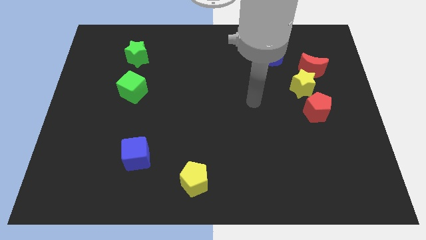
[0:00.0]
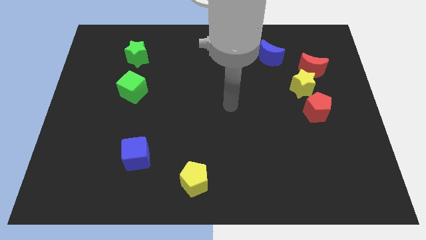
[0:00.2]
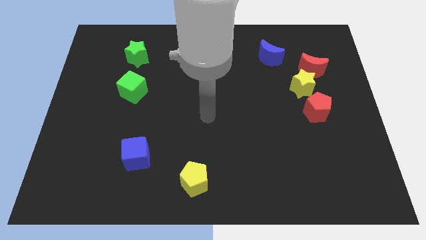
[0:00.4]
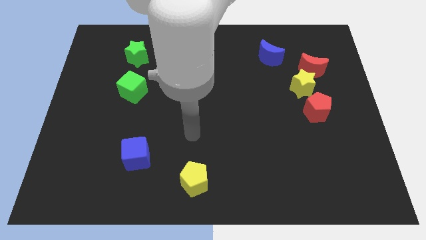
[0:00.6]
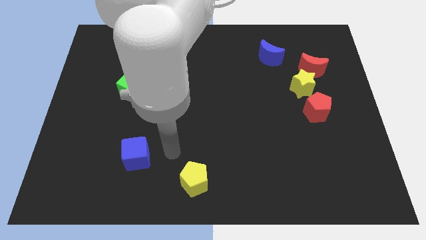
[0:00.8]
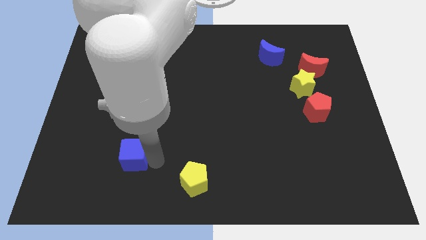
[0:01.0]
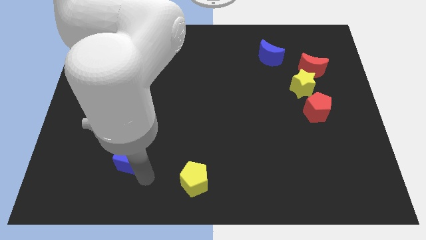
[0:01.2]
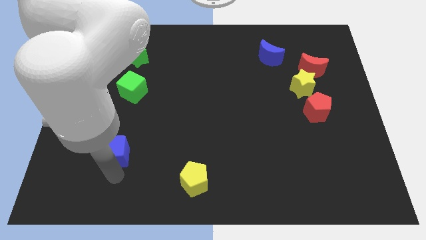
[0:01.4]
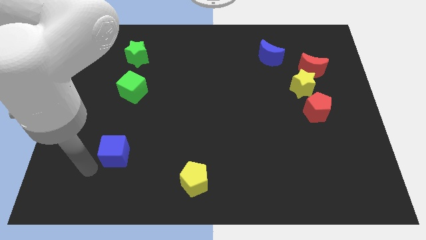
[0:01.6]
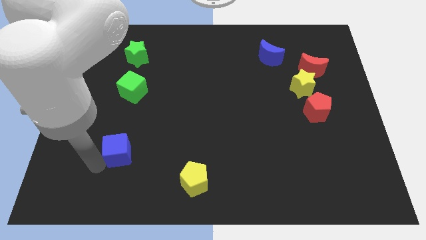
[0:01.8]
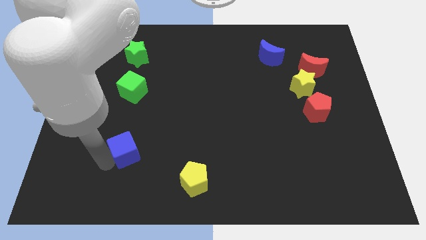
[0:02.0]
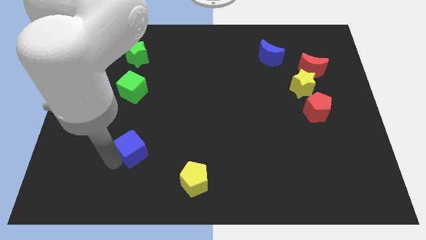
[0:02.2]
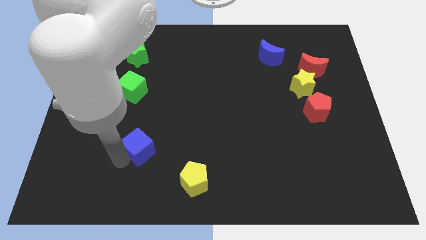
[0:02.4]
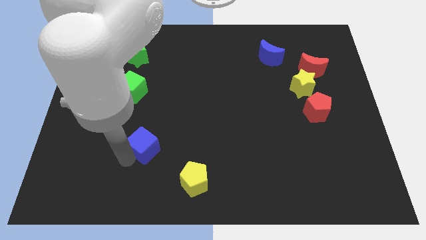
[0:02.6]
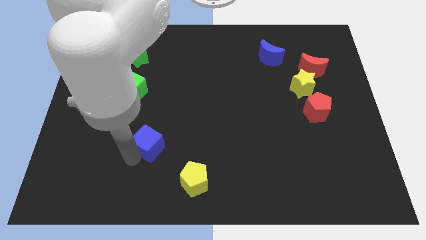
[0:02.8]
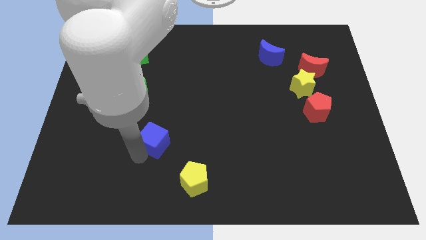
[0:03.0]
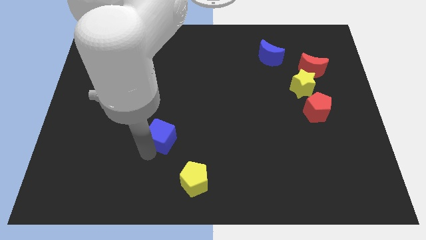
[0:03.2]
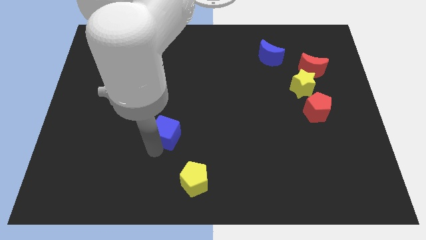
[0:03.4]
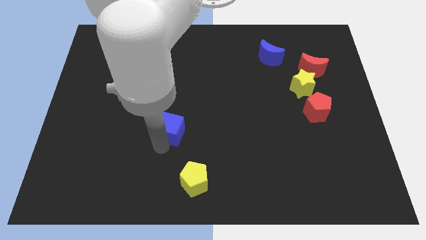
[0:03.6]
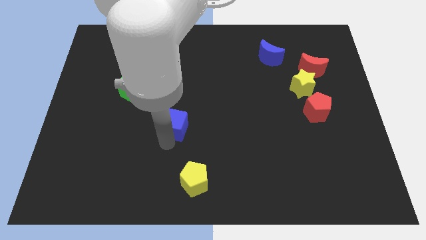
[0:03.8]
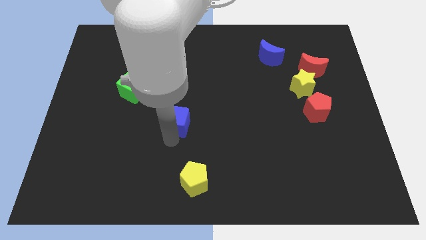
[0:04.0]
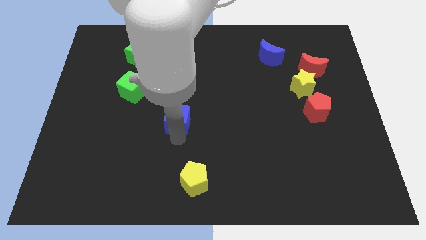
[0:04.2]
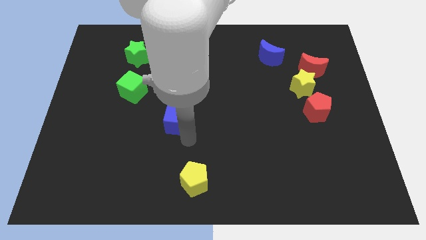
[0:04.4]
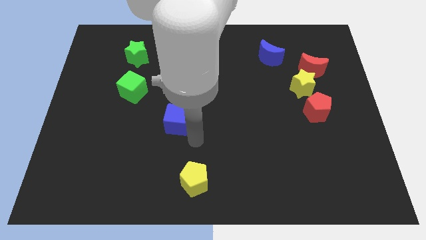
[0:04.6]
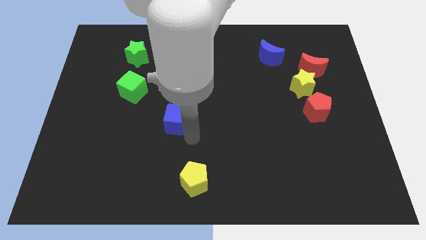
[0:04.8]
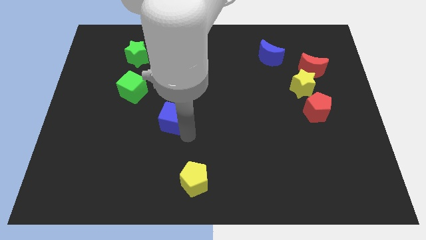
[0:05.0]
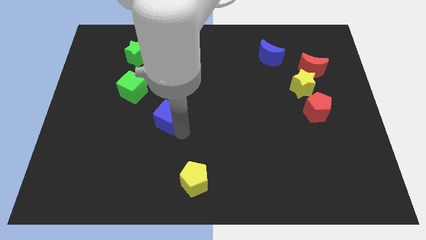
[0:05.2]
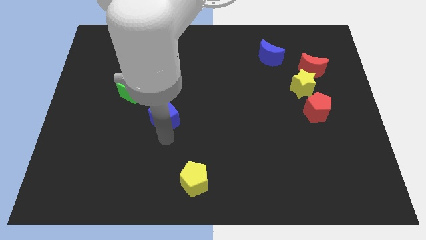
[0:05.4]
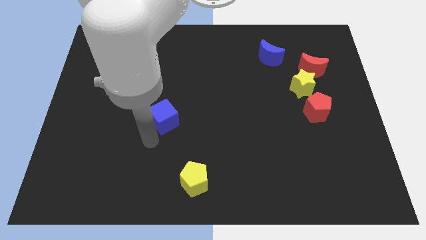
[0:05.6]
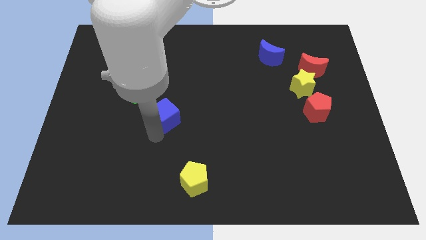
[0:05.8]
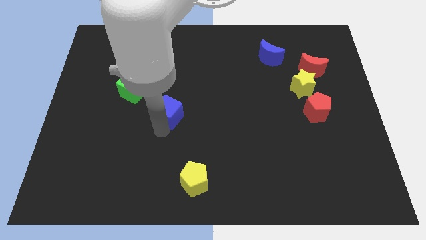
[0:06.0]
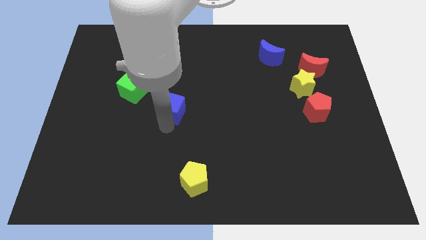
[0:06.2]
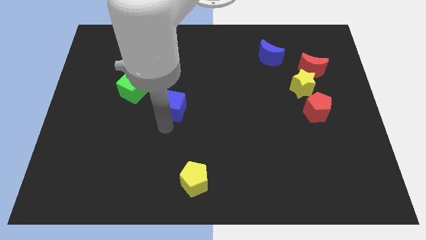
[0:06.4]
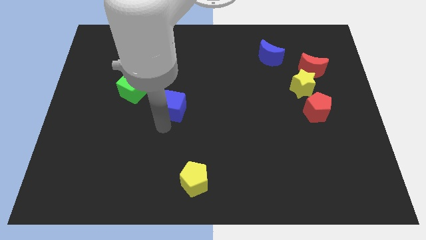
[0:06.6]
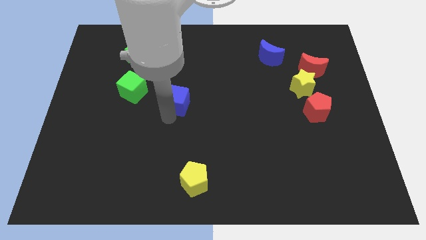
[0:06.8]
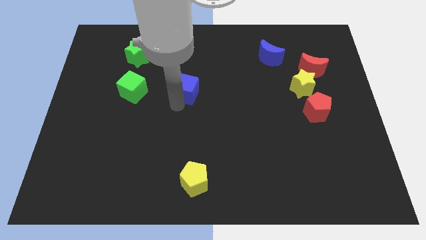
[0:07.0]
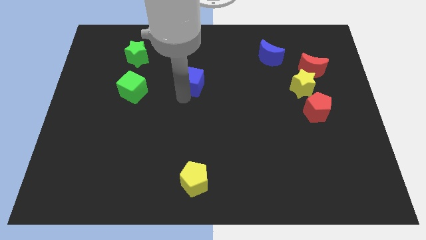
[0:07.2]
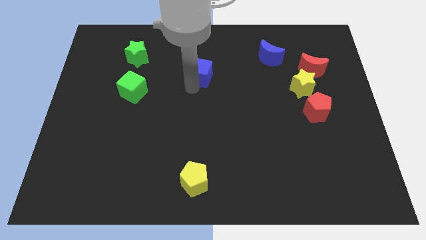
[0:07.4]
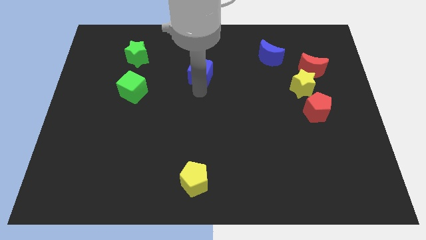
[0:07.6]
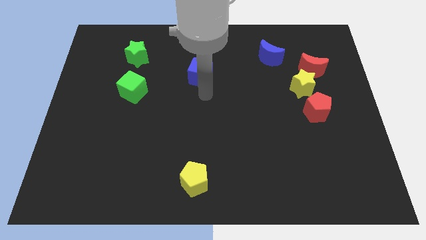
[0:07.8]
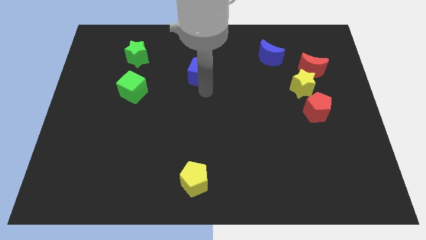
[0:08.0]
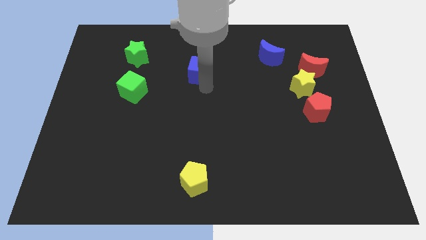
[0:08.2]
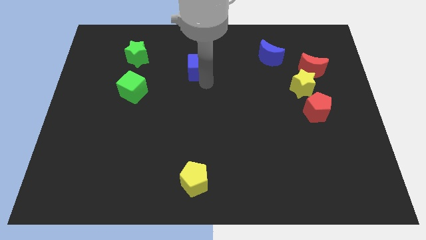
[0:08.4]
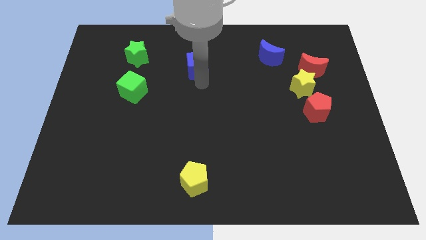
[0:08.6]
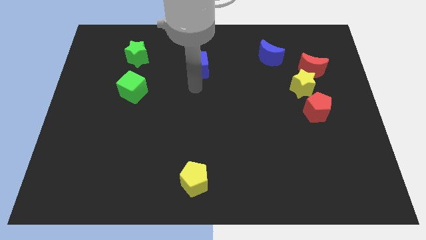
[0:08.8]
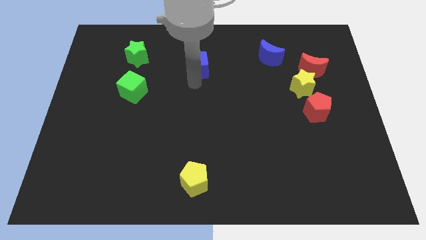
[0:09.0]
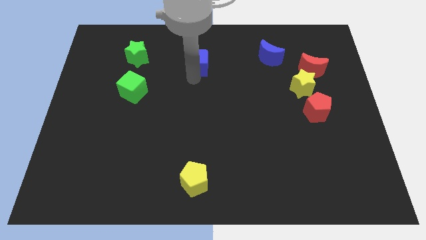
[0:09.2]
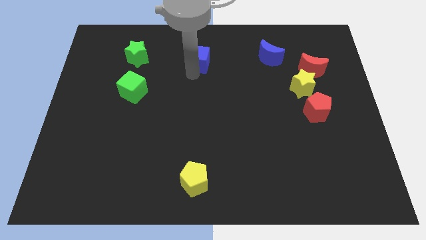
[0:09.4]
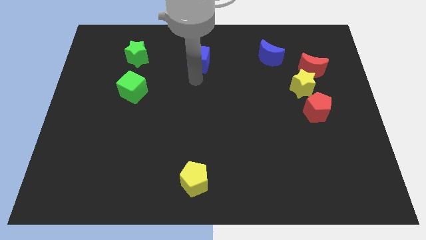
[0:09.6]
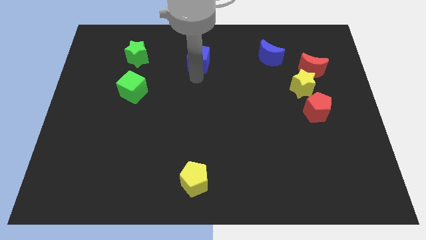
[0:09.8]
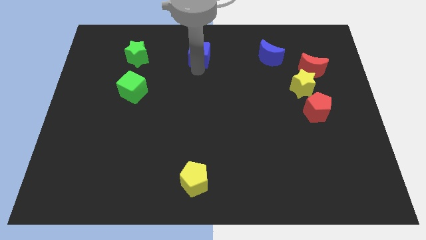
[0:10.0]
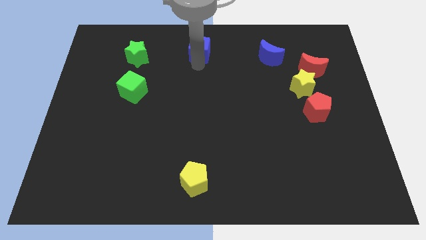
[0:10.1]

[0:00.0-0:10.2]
slide the blue cube to the top side

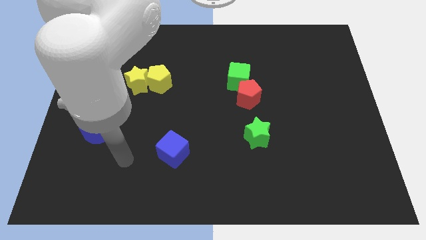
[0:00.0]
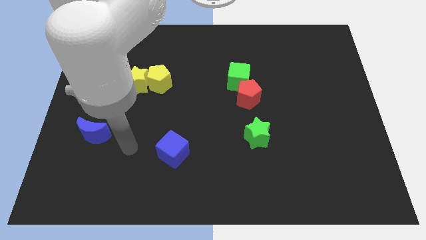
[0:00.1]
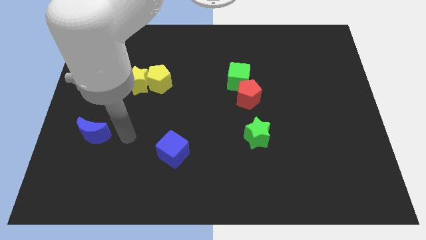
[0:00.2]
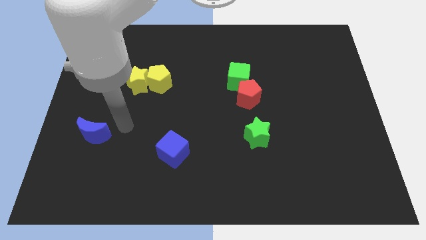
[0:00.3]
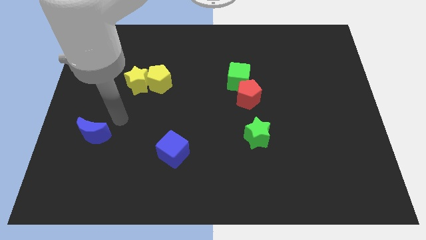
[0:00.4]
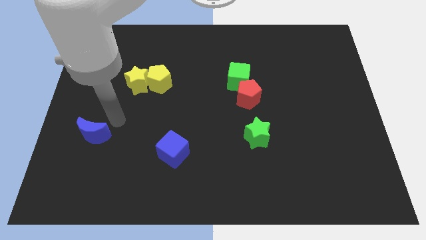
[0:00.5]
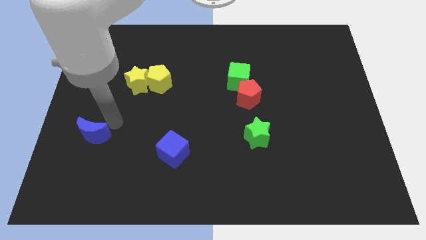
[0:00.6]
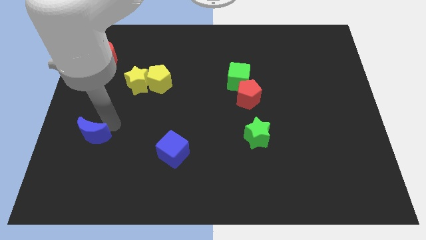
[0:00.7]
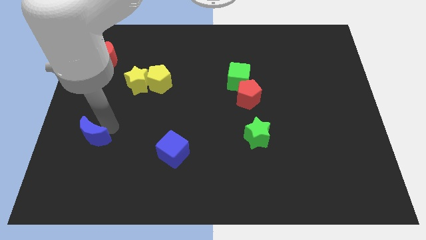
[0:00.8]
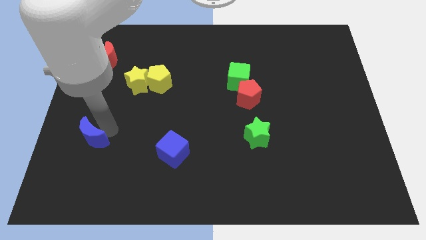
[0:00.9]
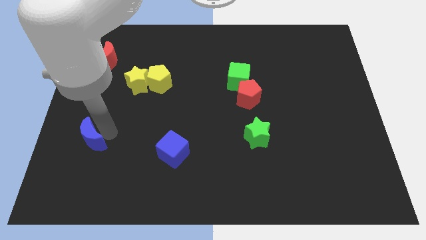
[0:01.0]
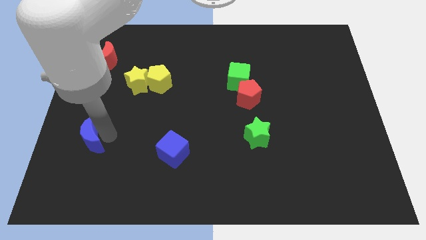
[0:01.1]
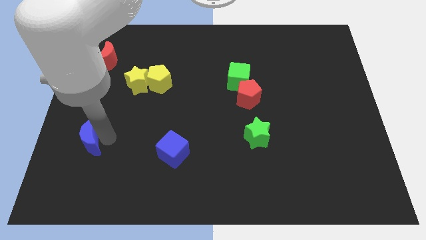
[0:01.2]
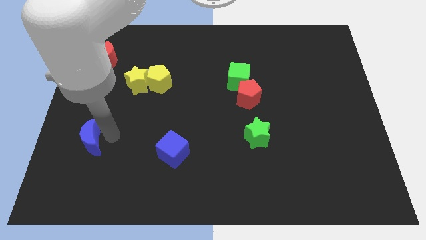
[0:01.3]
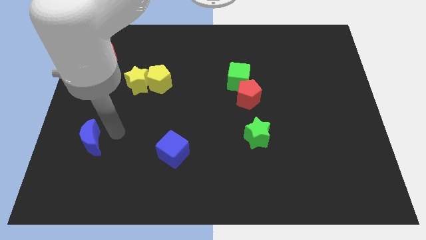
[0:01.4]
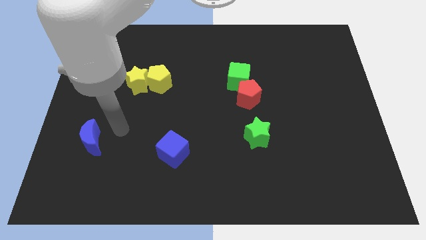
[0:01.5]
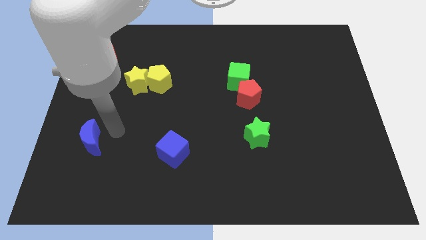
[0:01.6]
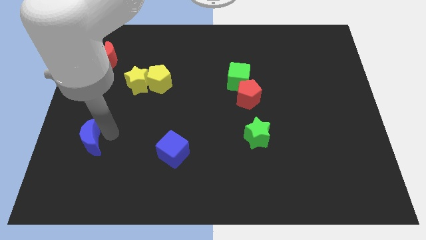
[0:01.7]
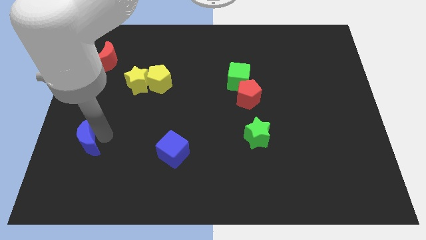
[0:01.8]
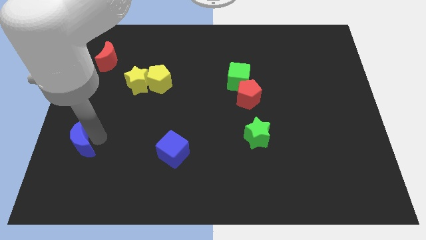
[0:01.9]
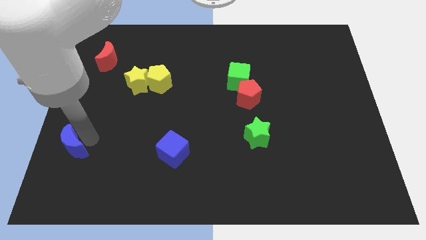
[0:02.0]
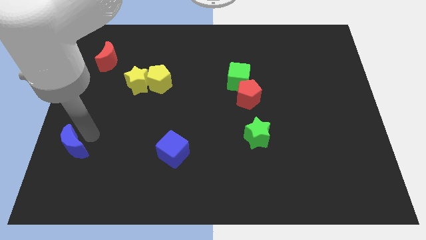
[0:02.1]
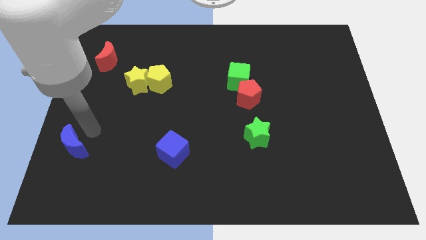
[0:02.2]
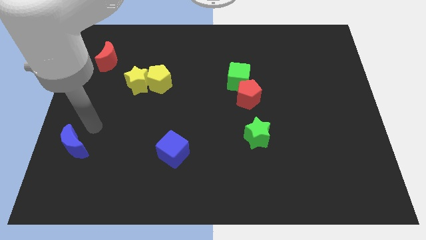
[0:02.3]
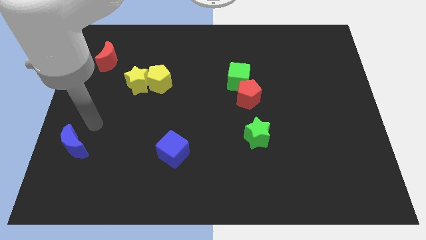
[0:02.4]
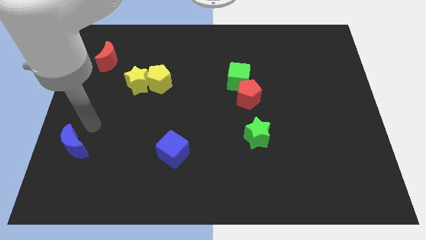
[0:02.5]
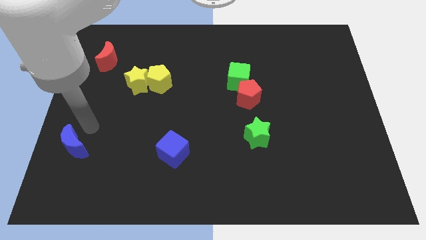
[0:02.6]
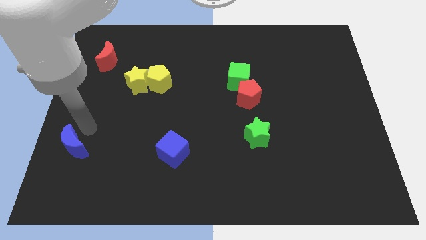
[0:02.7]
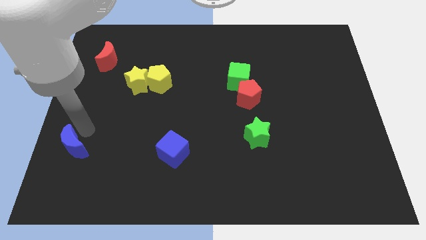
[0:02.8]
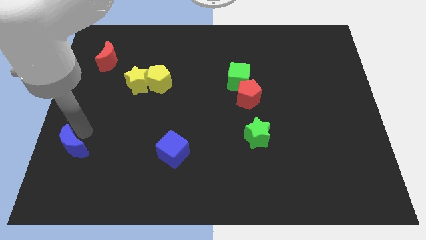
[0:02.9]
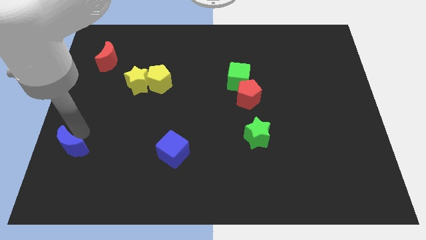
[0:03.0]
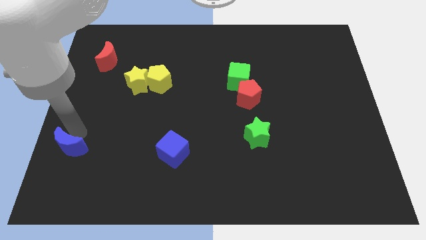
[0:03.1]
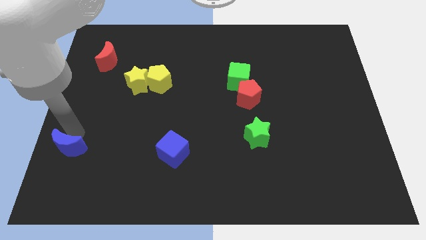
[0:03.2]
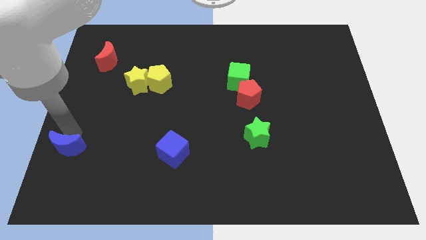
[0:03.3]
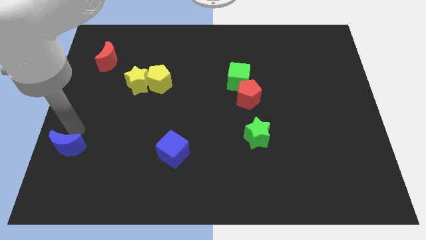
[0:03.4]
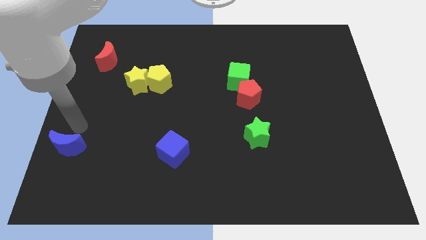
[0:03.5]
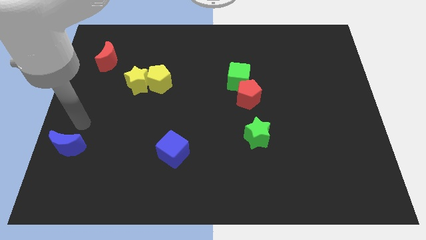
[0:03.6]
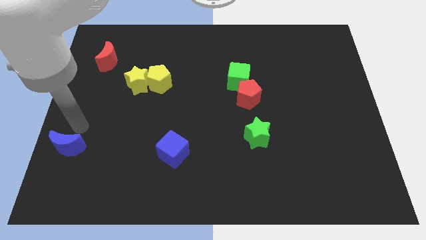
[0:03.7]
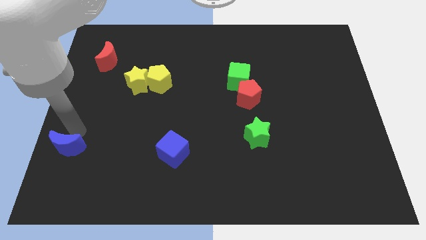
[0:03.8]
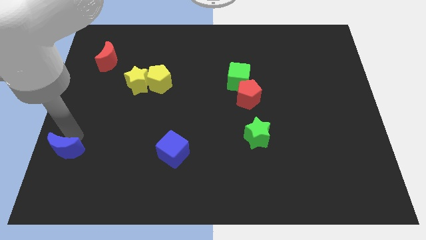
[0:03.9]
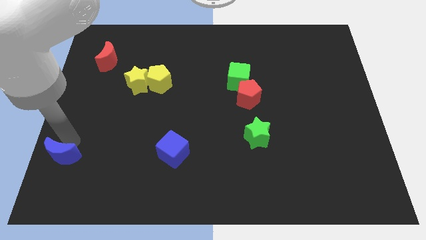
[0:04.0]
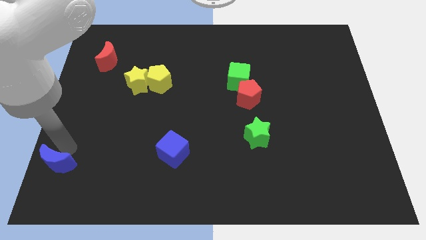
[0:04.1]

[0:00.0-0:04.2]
push the blue moon to the bottom left
